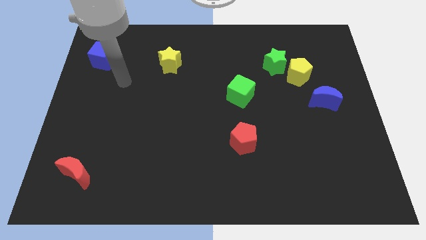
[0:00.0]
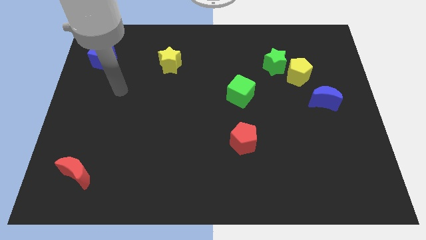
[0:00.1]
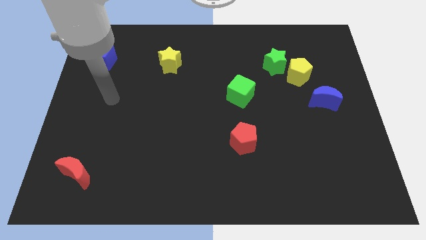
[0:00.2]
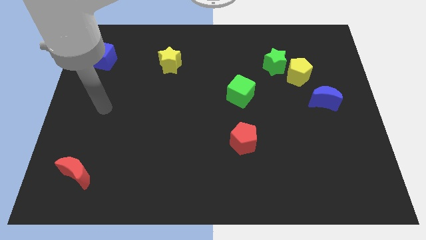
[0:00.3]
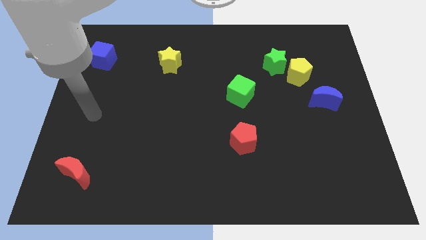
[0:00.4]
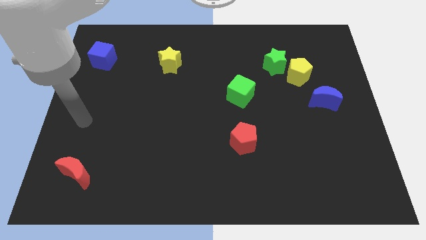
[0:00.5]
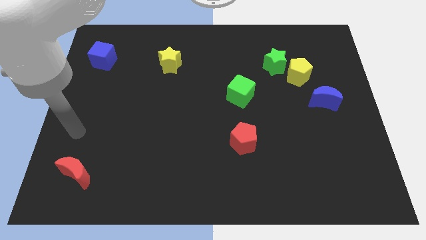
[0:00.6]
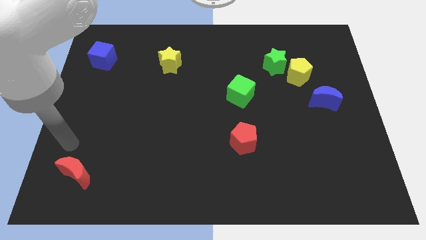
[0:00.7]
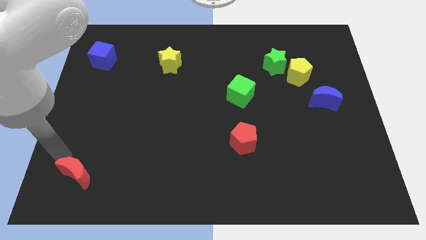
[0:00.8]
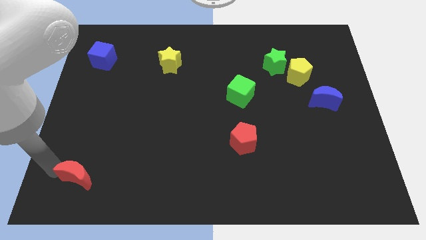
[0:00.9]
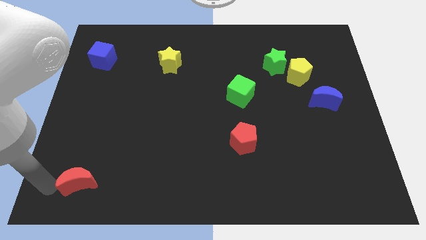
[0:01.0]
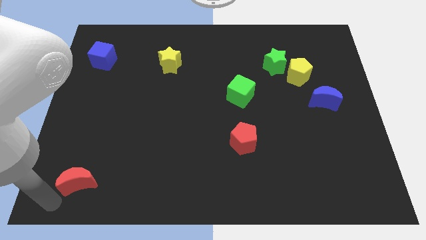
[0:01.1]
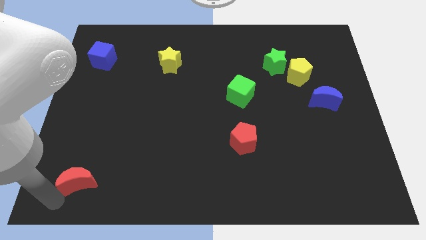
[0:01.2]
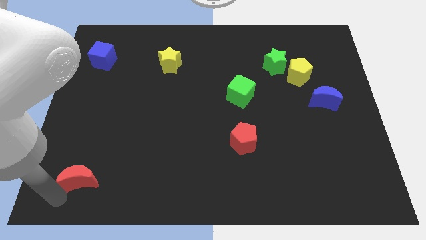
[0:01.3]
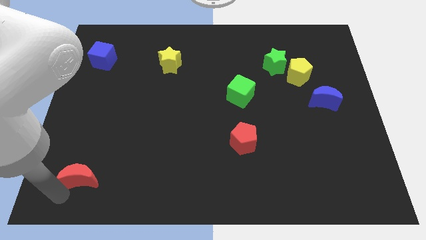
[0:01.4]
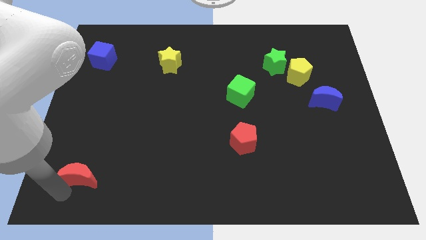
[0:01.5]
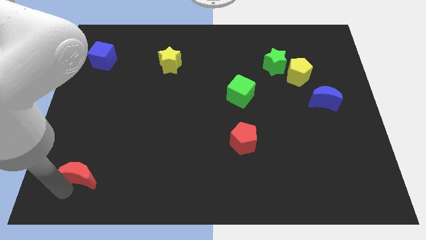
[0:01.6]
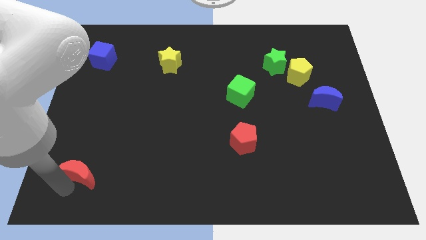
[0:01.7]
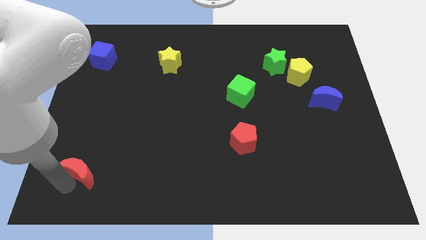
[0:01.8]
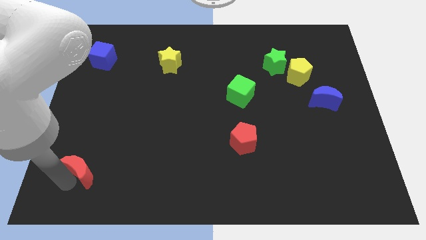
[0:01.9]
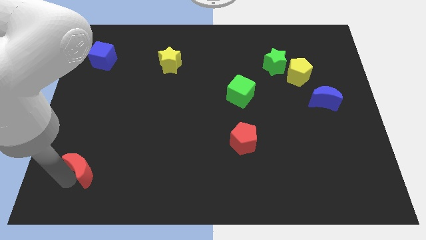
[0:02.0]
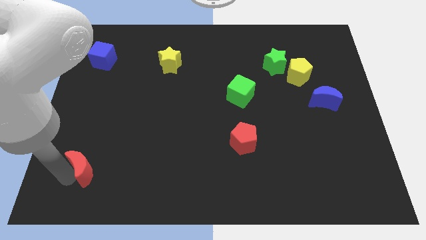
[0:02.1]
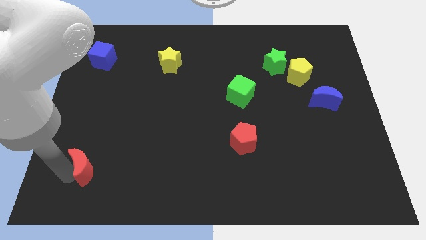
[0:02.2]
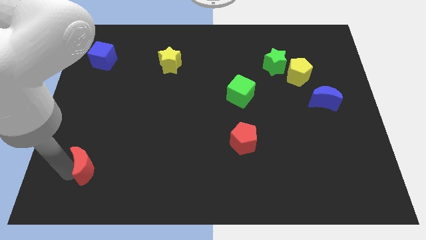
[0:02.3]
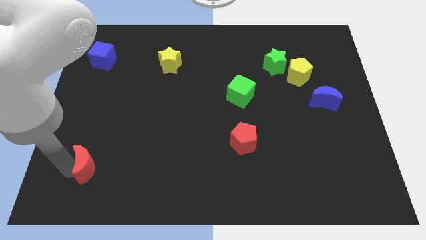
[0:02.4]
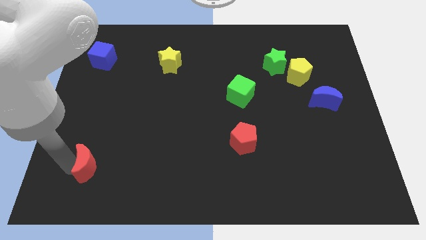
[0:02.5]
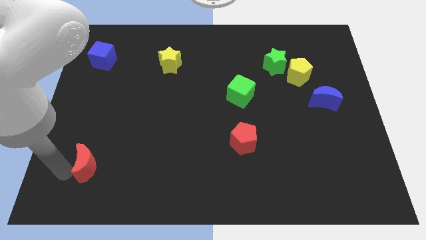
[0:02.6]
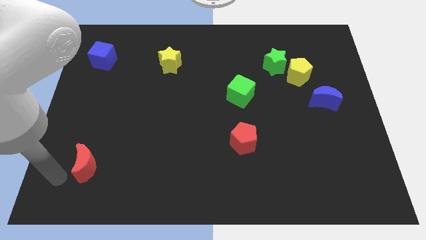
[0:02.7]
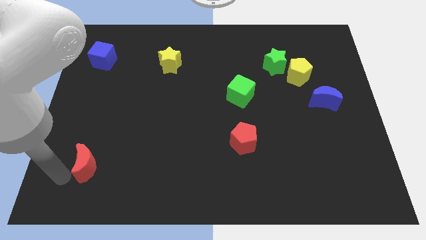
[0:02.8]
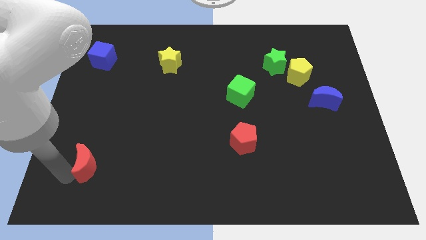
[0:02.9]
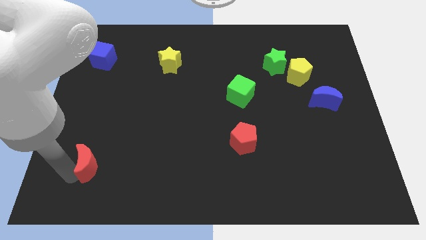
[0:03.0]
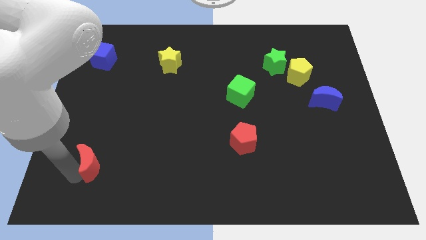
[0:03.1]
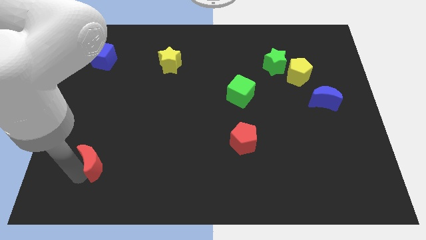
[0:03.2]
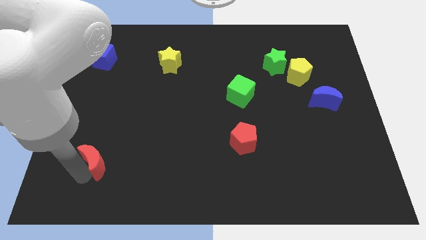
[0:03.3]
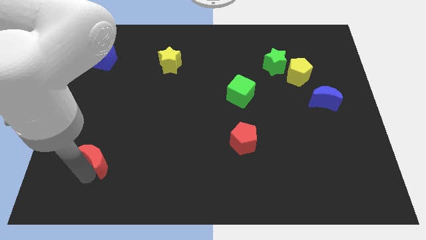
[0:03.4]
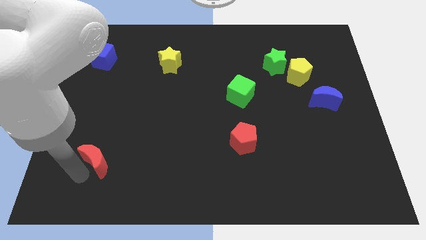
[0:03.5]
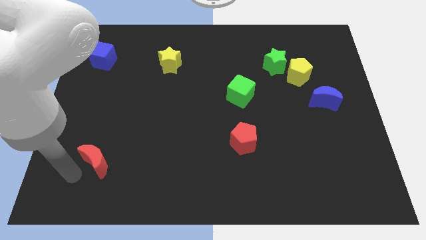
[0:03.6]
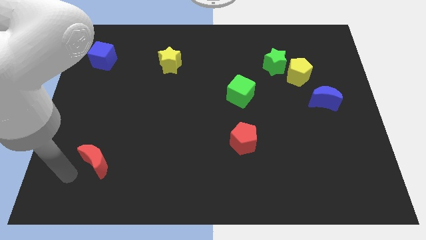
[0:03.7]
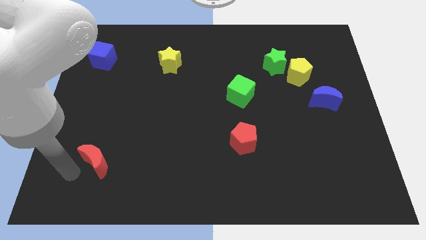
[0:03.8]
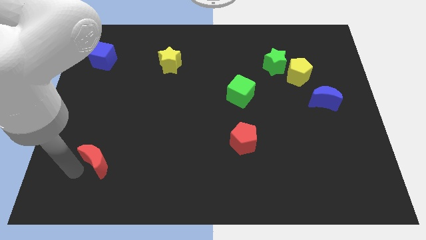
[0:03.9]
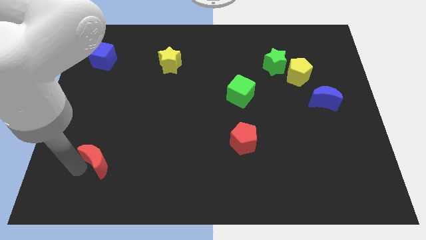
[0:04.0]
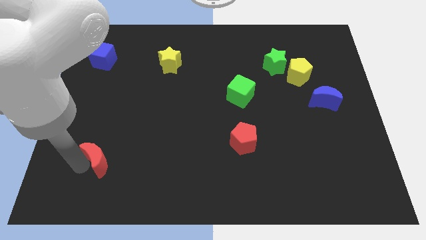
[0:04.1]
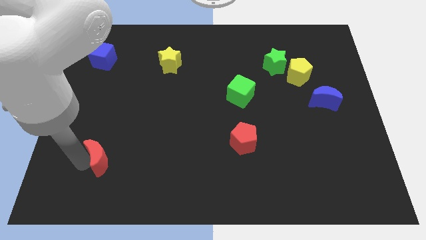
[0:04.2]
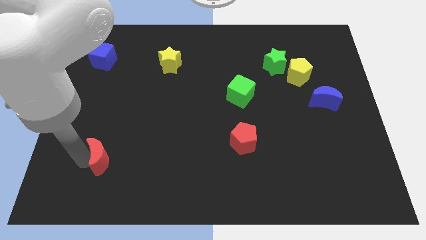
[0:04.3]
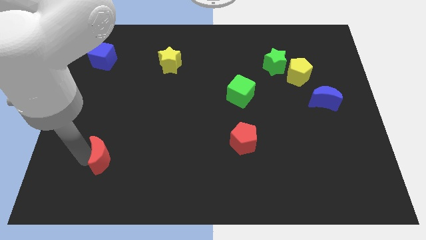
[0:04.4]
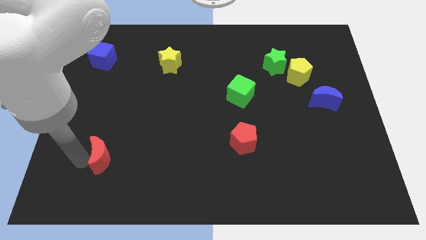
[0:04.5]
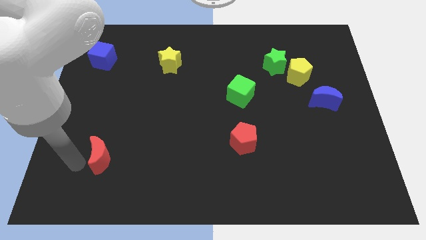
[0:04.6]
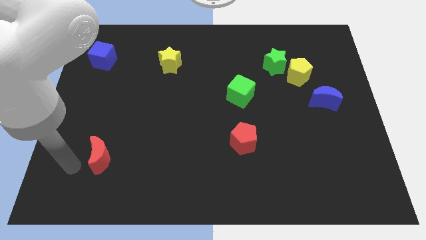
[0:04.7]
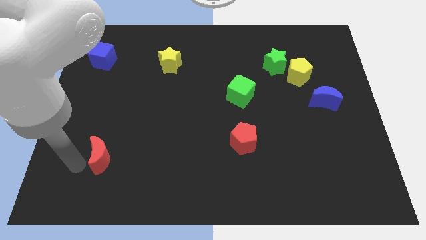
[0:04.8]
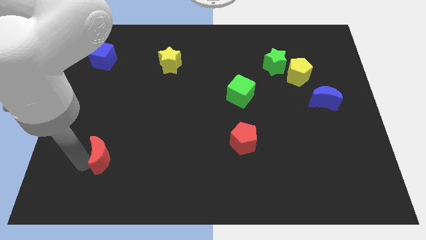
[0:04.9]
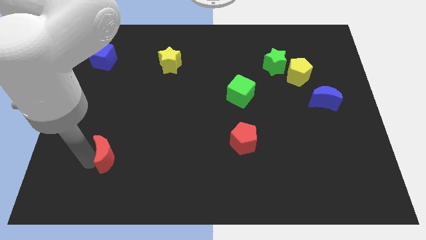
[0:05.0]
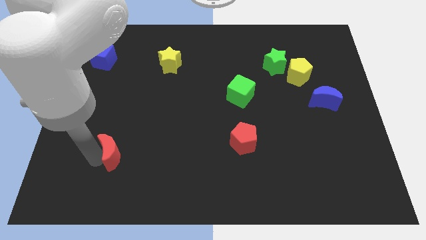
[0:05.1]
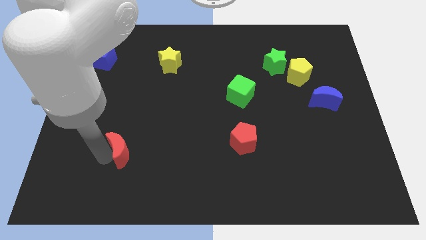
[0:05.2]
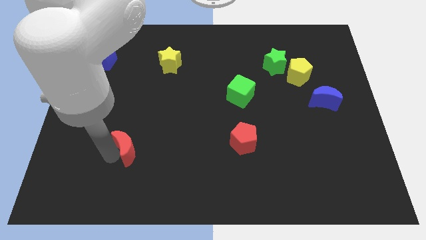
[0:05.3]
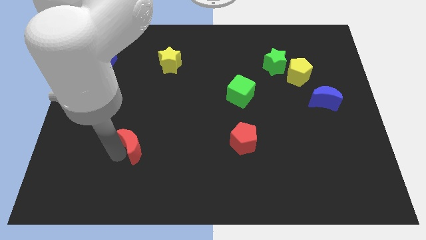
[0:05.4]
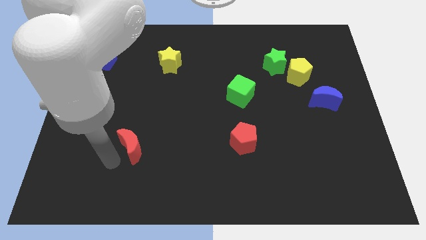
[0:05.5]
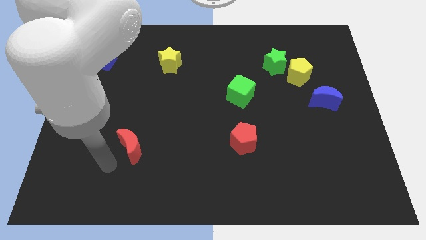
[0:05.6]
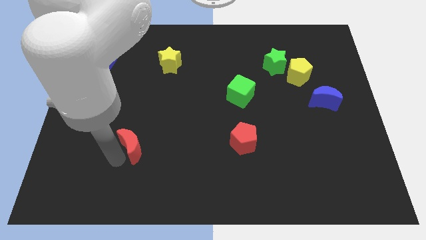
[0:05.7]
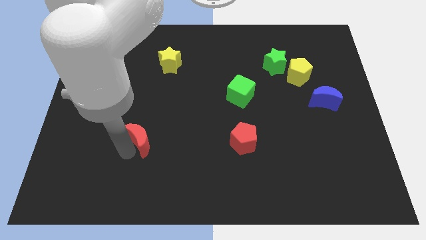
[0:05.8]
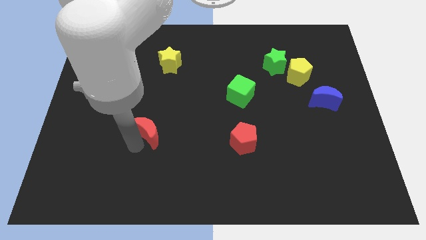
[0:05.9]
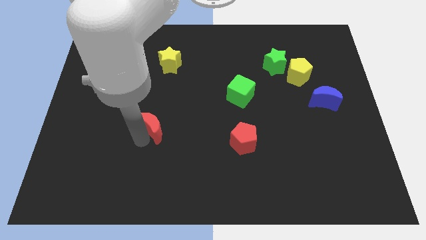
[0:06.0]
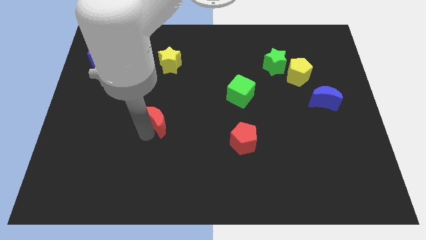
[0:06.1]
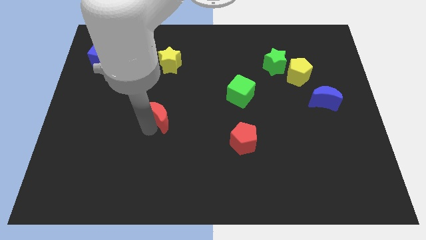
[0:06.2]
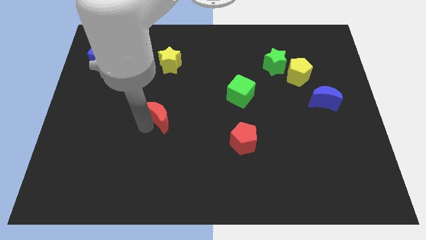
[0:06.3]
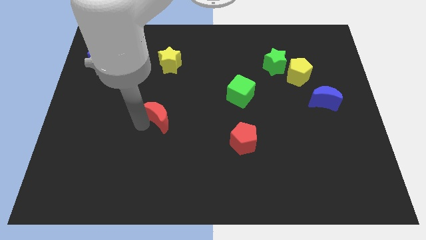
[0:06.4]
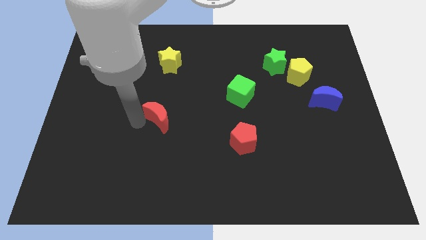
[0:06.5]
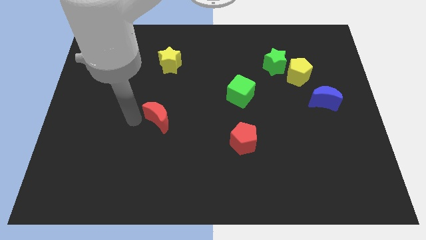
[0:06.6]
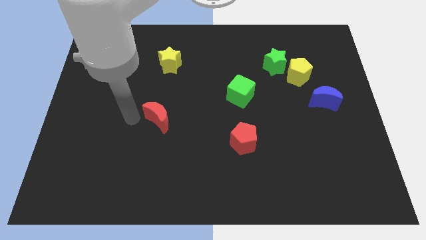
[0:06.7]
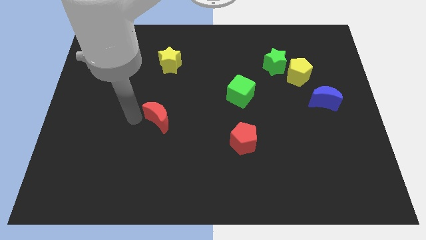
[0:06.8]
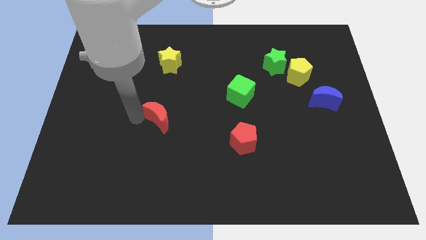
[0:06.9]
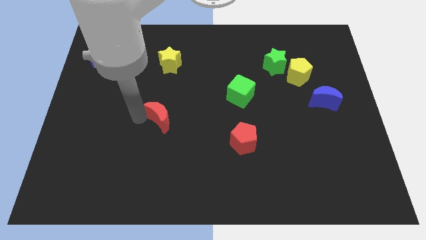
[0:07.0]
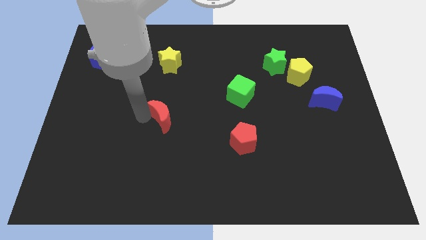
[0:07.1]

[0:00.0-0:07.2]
move the red moon to the middle
